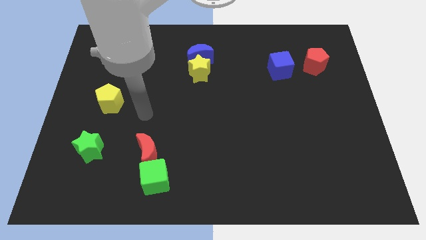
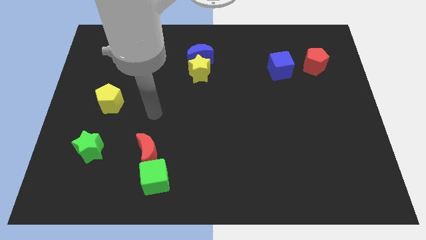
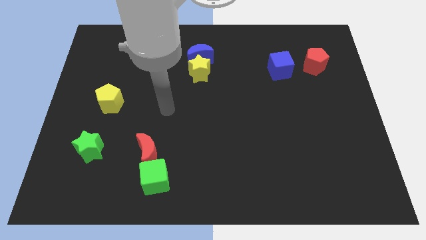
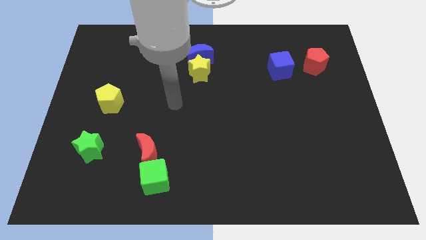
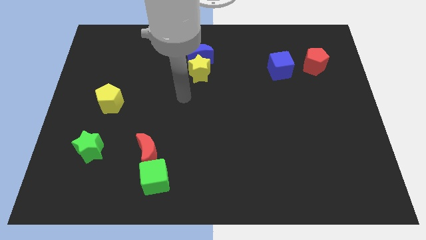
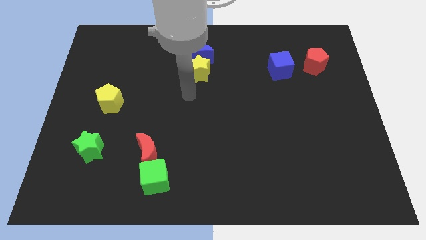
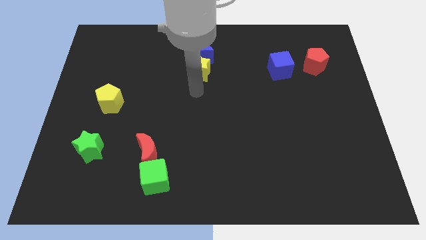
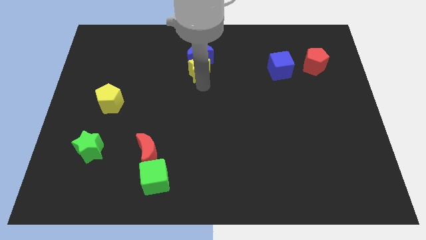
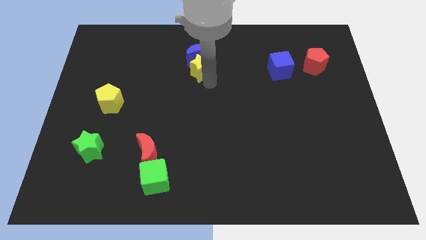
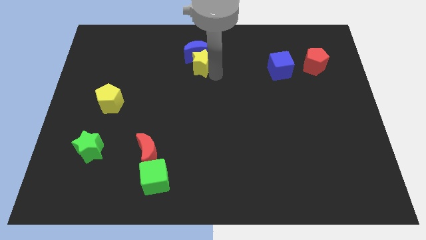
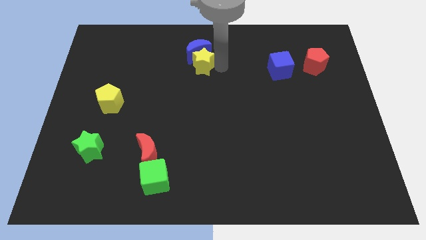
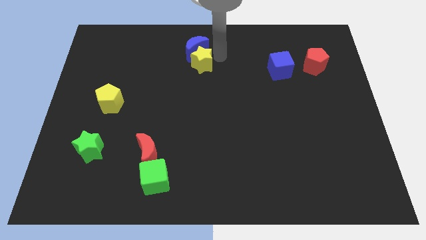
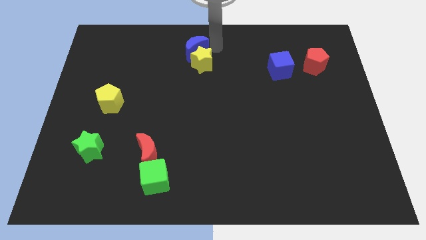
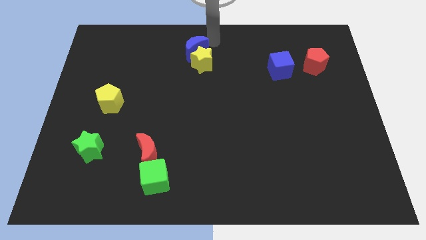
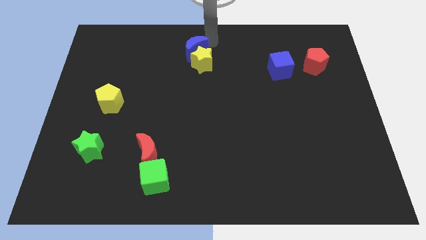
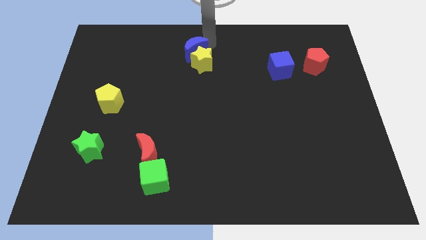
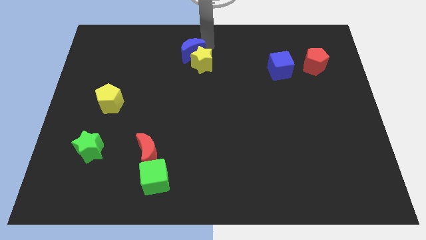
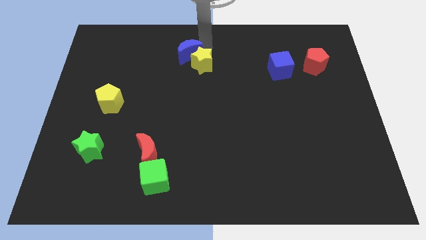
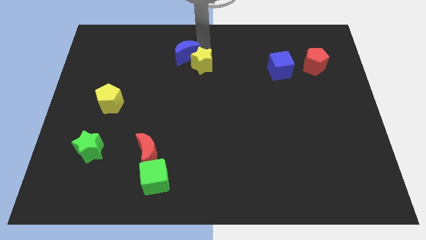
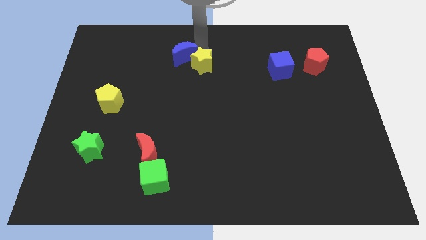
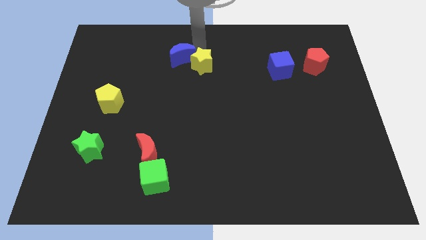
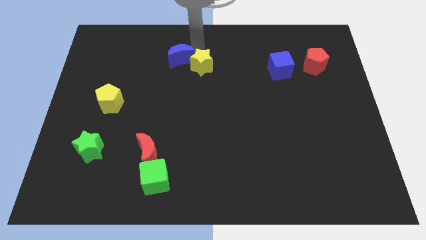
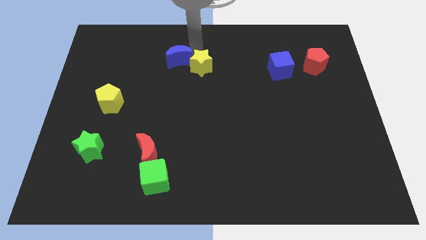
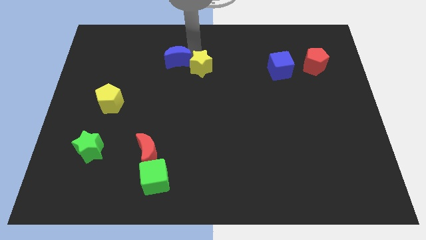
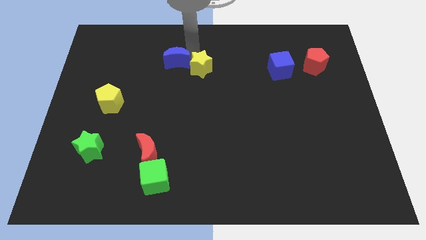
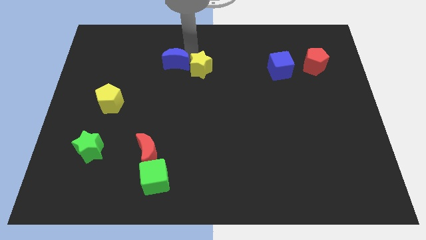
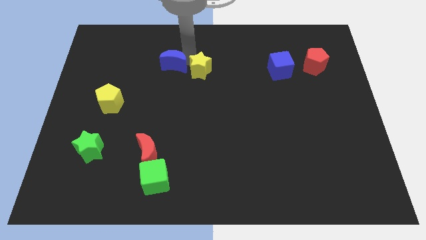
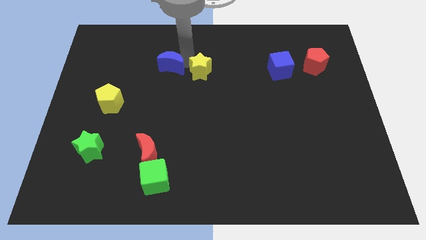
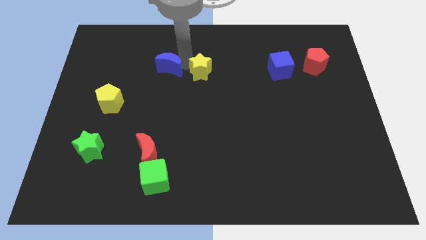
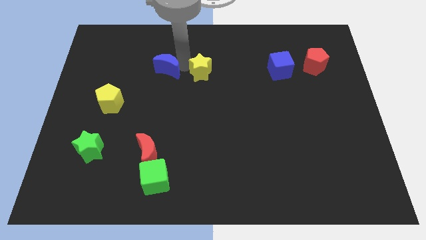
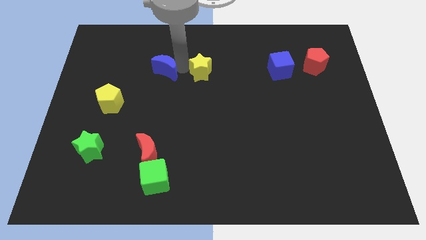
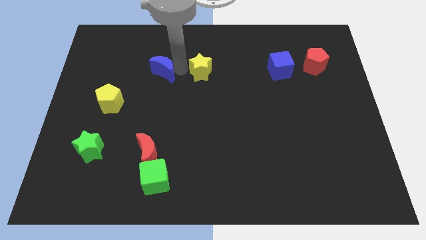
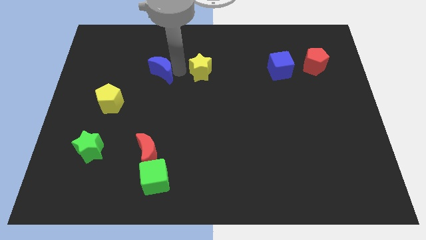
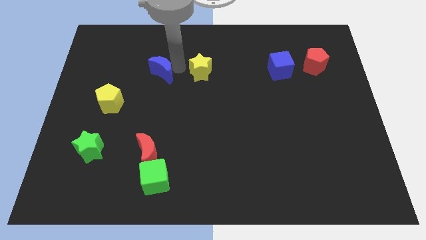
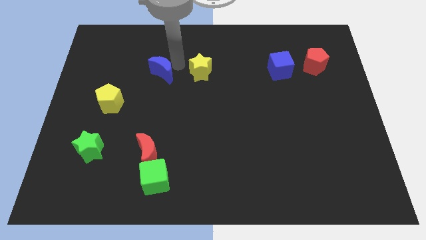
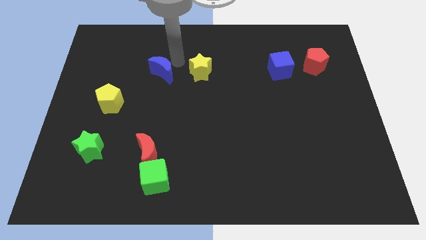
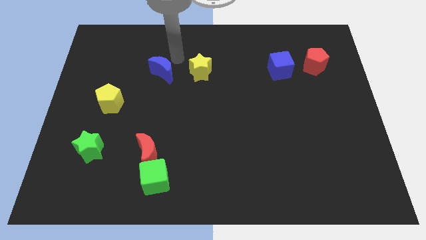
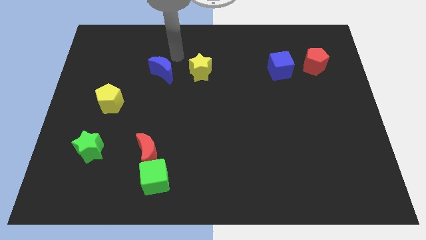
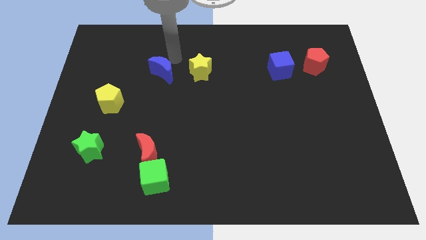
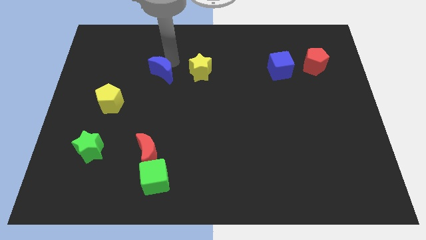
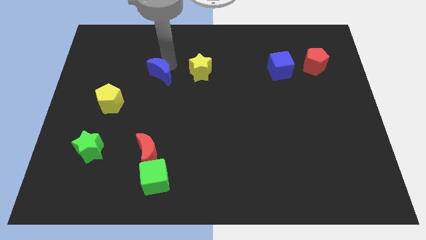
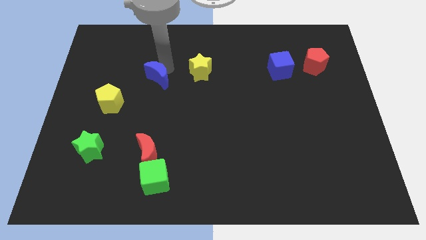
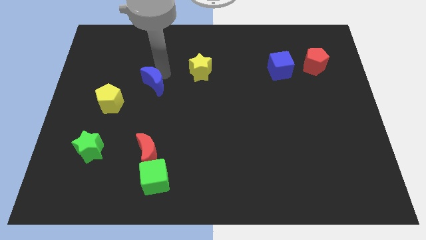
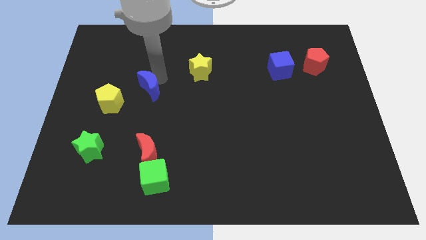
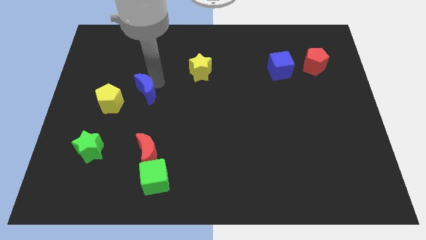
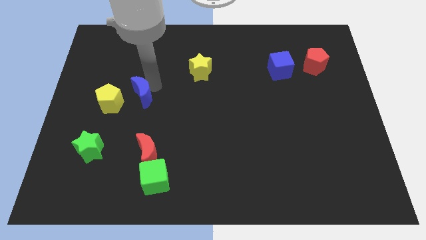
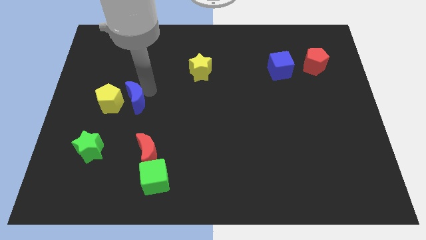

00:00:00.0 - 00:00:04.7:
push the blue moon downwards and left diagonally

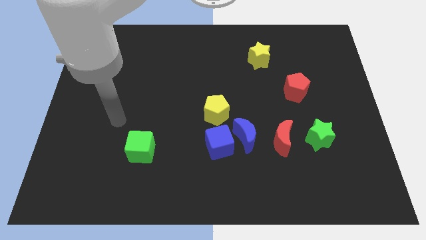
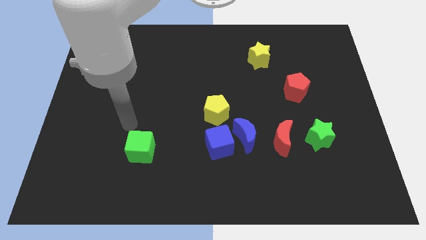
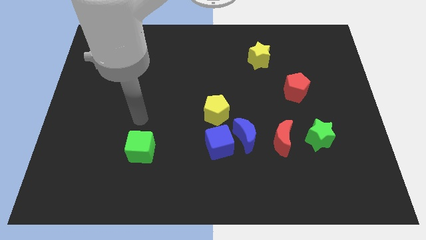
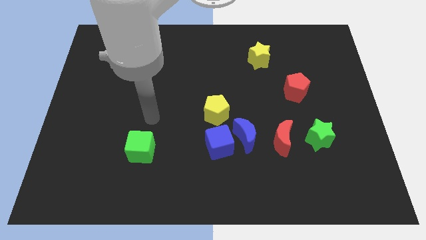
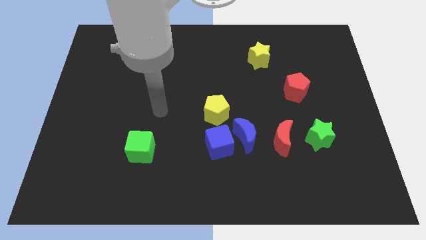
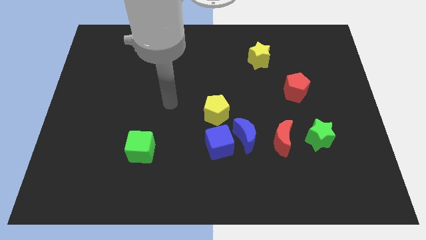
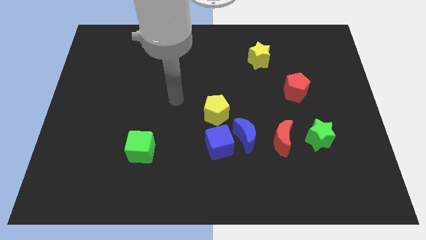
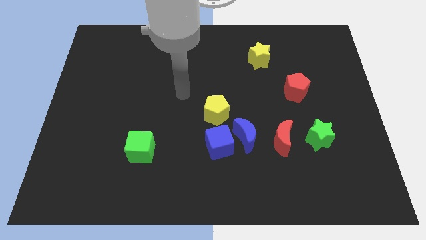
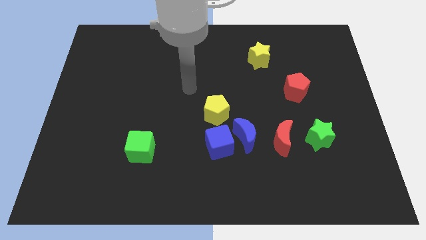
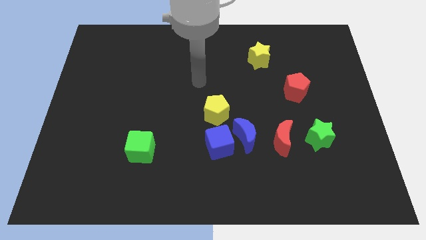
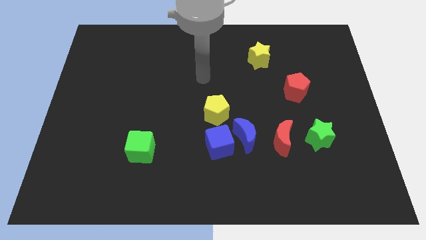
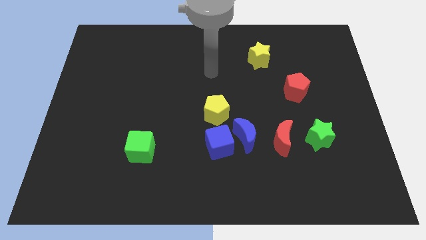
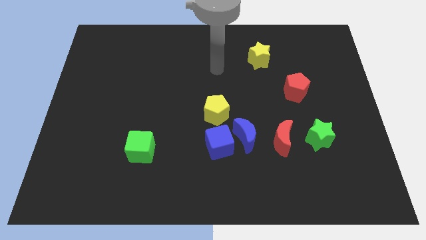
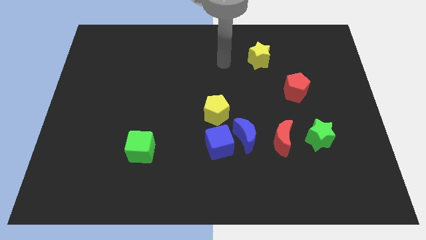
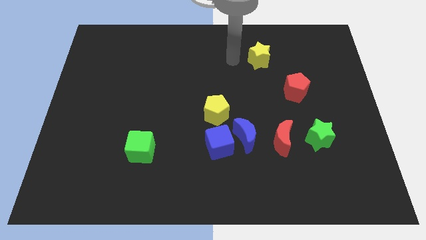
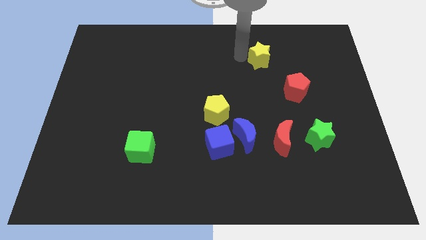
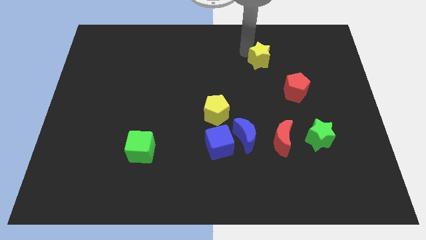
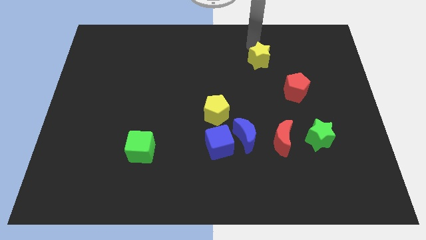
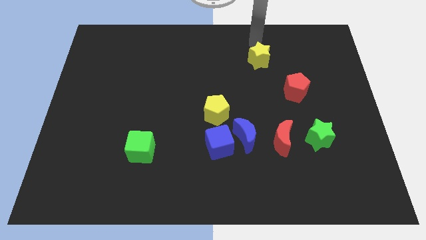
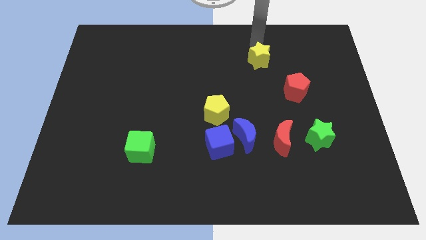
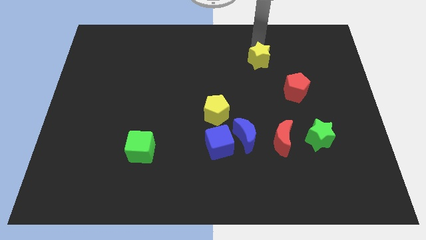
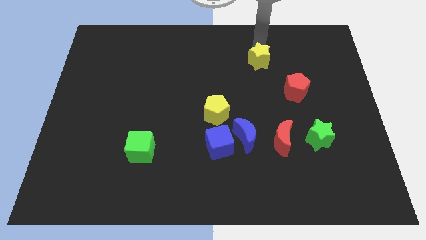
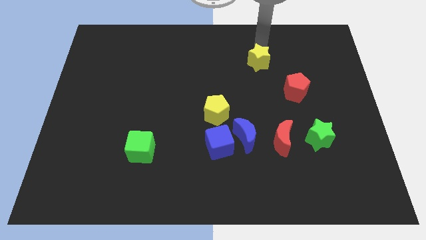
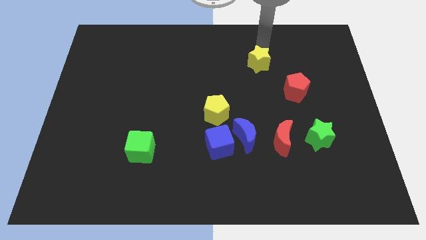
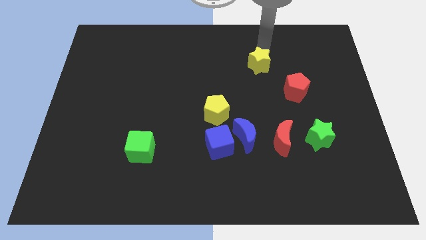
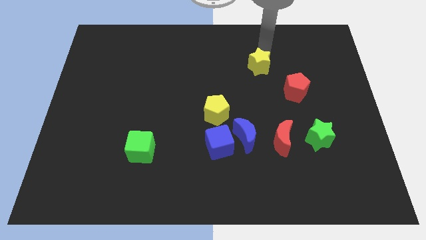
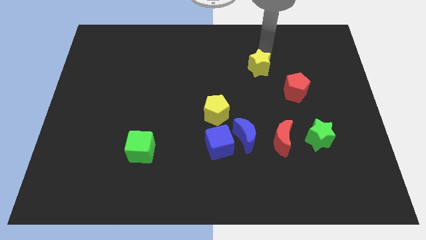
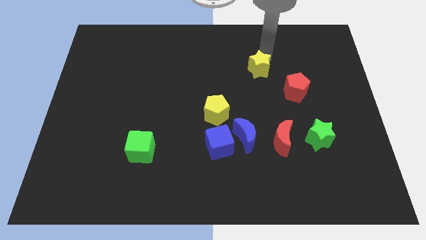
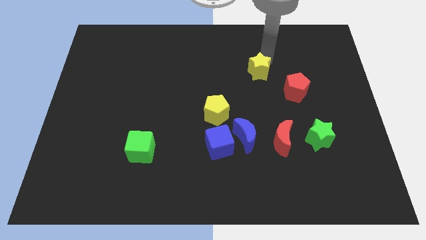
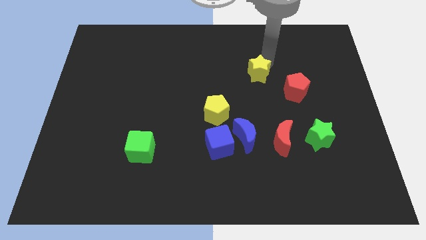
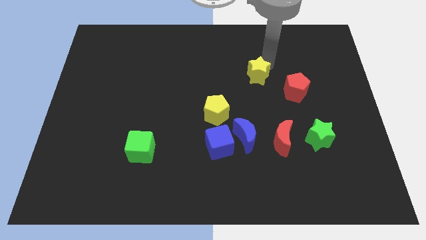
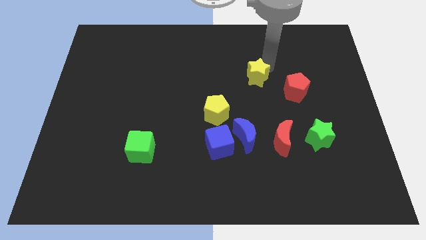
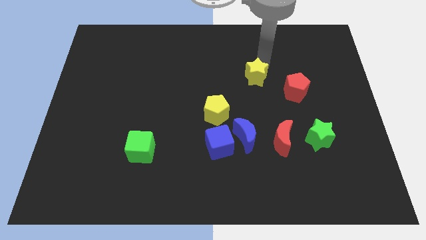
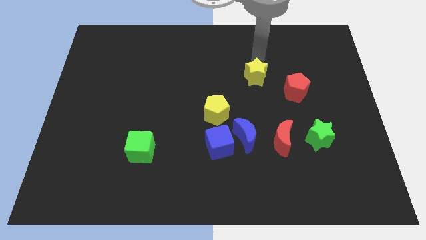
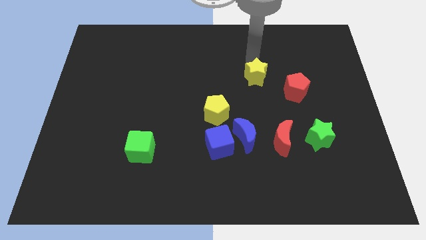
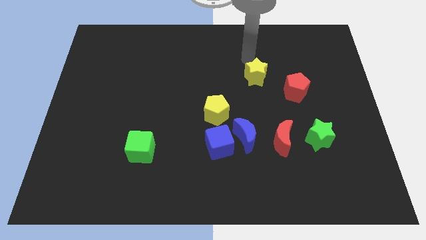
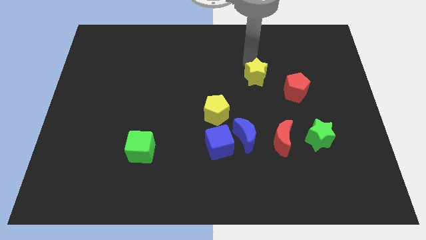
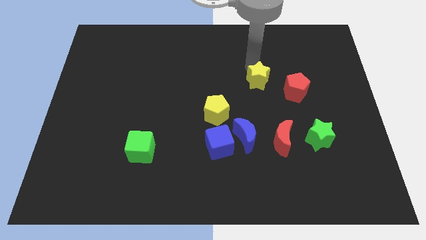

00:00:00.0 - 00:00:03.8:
push the yellow star down a bit
